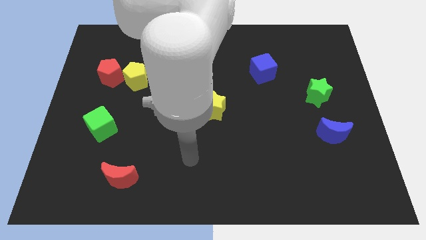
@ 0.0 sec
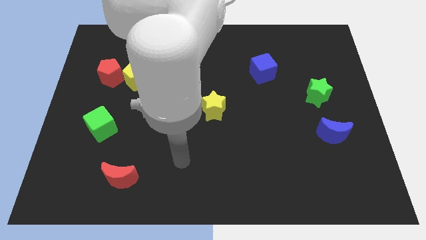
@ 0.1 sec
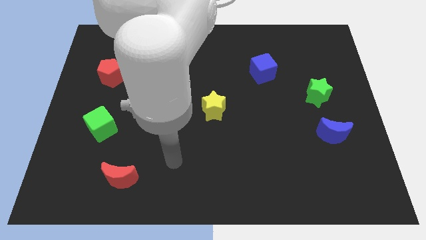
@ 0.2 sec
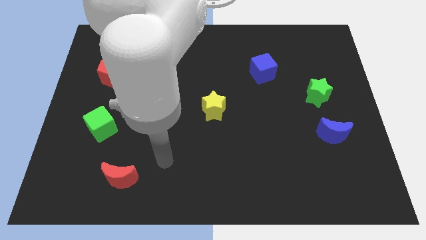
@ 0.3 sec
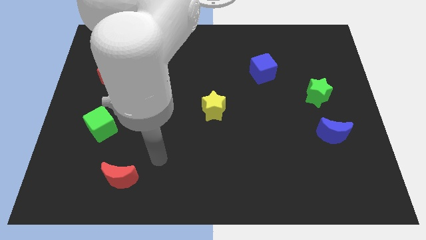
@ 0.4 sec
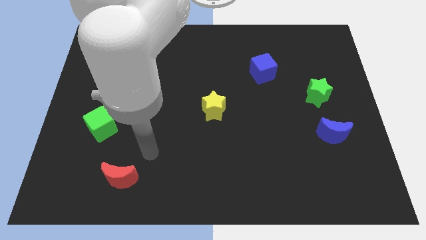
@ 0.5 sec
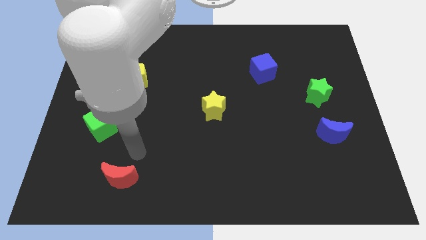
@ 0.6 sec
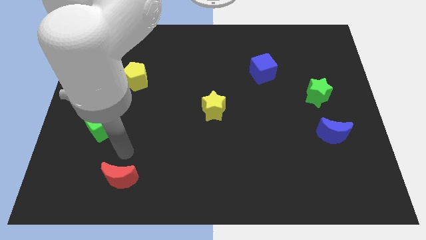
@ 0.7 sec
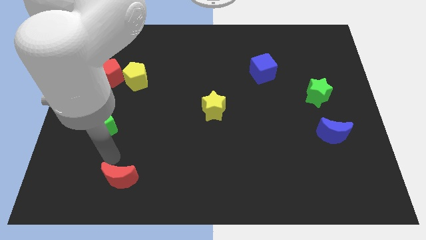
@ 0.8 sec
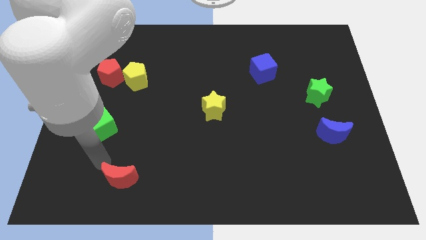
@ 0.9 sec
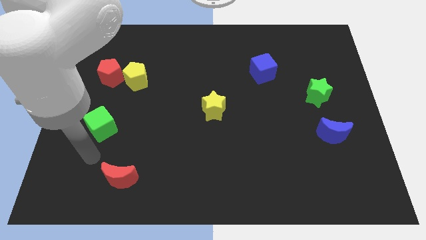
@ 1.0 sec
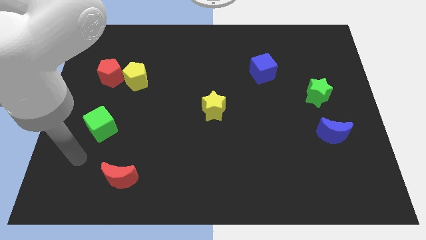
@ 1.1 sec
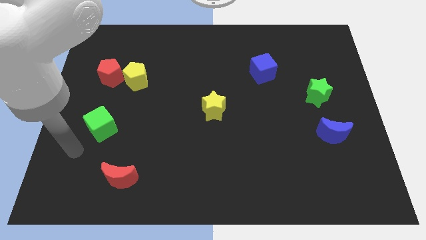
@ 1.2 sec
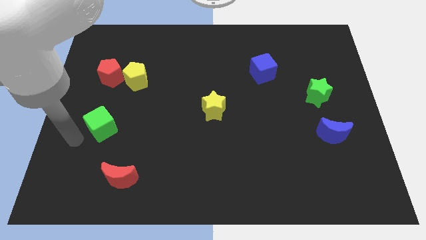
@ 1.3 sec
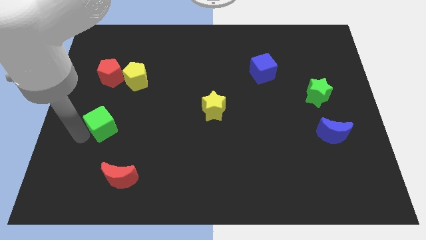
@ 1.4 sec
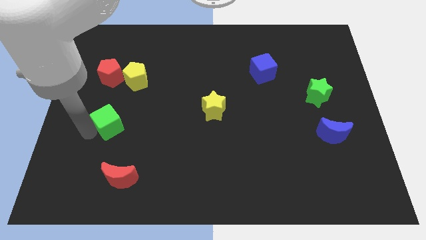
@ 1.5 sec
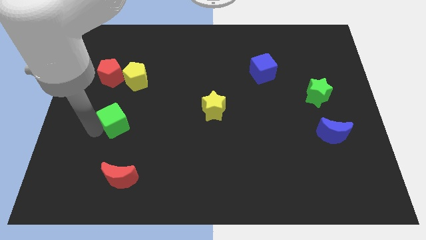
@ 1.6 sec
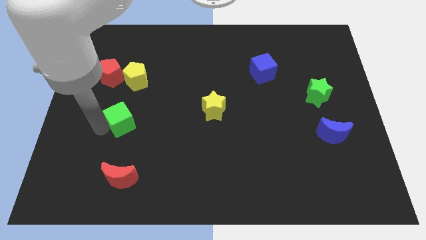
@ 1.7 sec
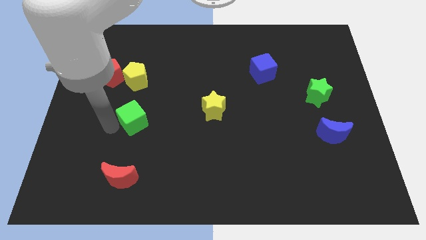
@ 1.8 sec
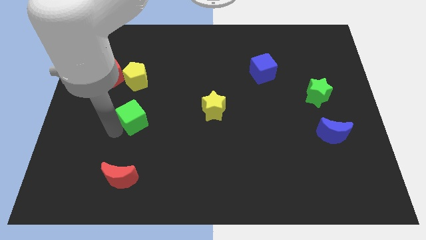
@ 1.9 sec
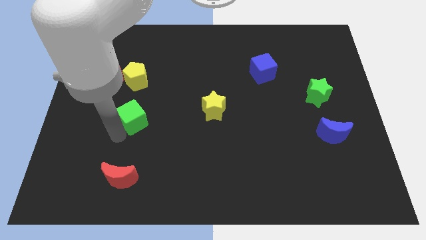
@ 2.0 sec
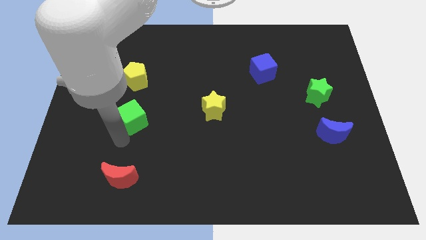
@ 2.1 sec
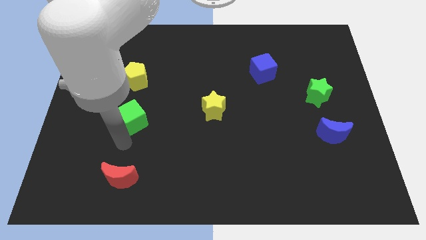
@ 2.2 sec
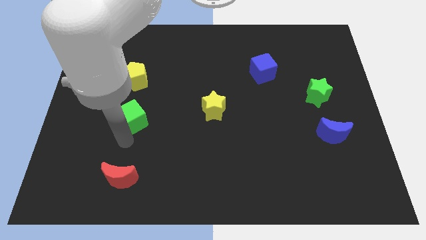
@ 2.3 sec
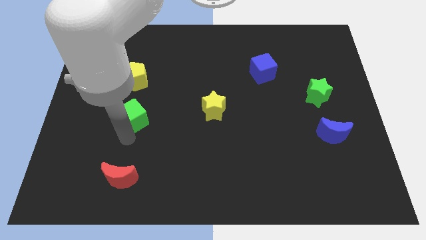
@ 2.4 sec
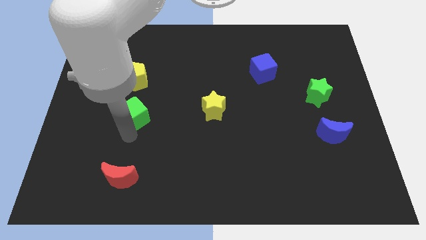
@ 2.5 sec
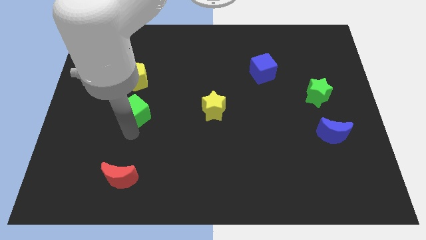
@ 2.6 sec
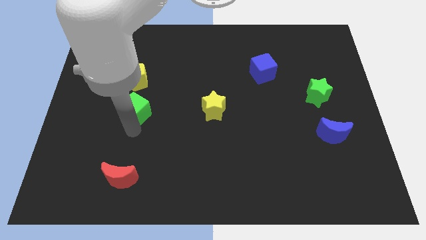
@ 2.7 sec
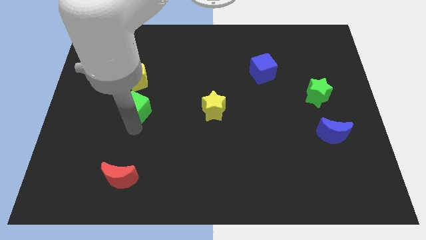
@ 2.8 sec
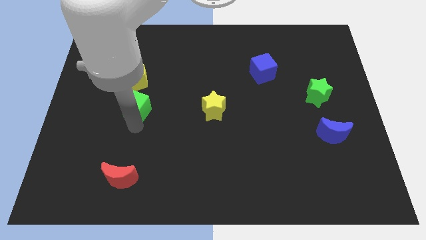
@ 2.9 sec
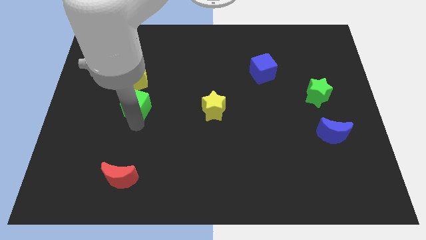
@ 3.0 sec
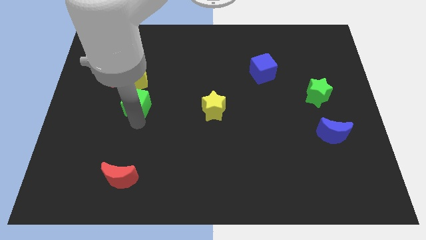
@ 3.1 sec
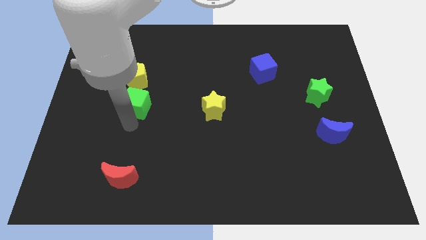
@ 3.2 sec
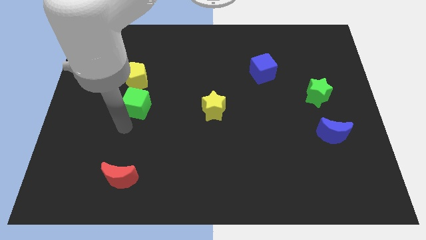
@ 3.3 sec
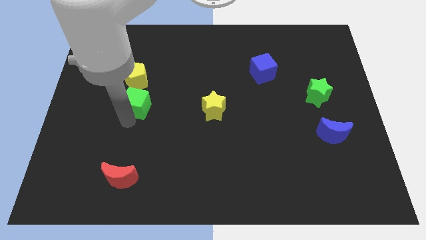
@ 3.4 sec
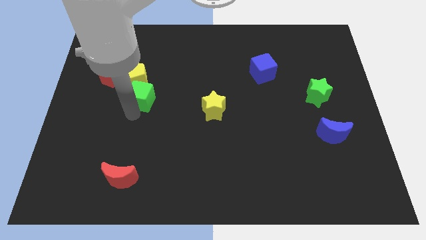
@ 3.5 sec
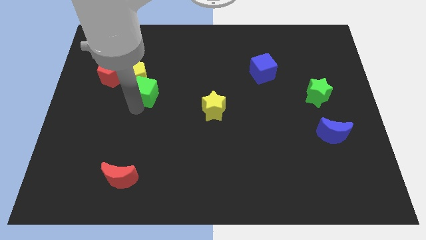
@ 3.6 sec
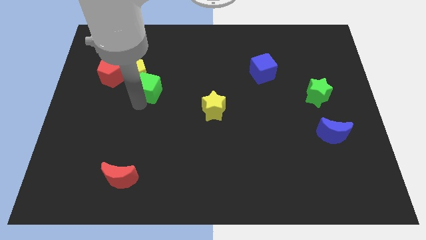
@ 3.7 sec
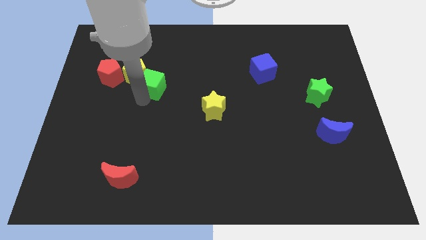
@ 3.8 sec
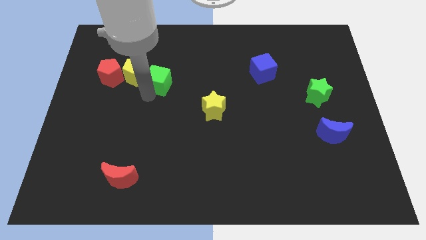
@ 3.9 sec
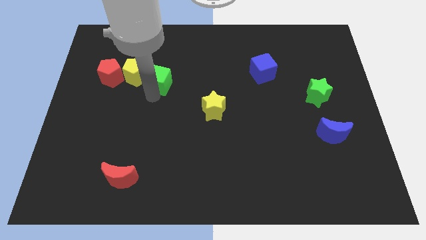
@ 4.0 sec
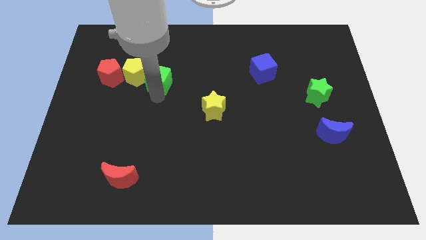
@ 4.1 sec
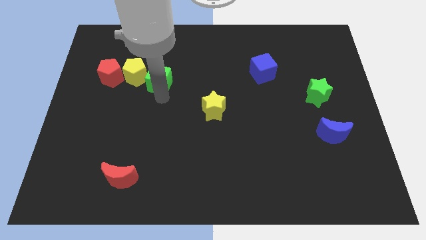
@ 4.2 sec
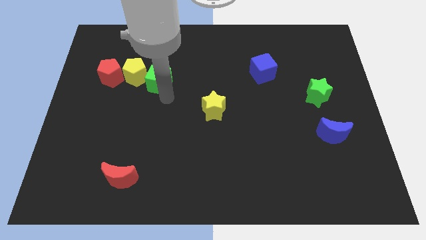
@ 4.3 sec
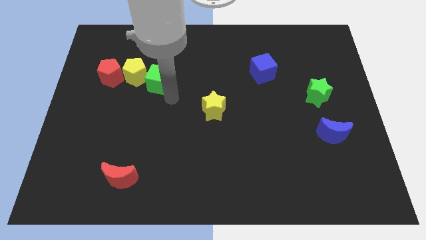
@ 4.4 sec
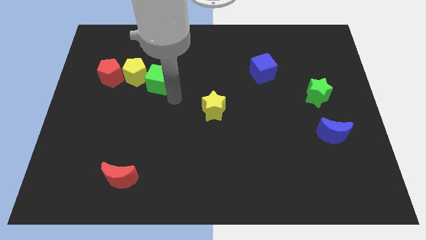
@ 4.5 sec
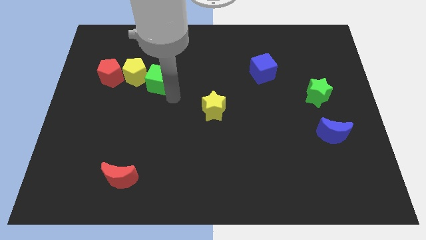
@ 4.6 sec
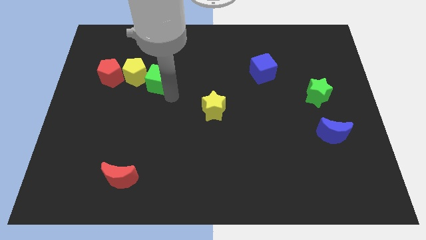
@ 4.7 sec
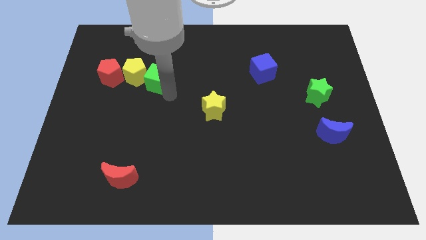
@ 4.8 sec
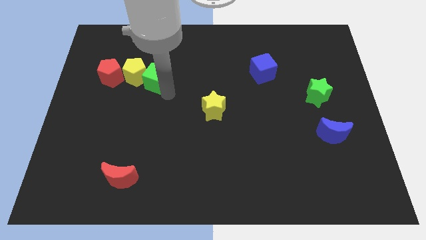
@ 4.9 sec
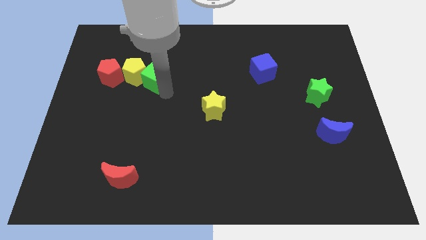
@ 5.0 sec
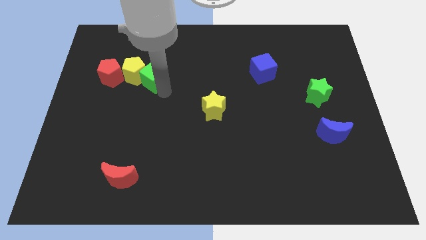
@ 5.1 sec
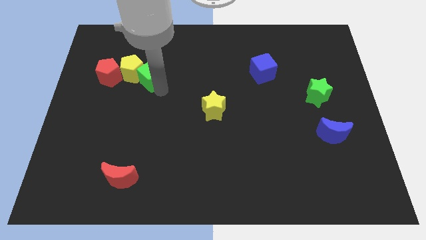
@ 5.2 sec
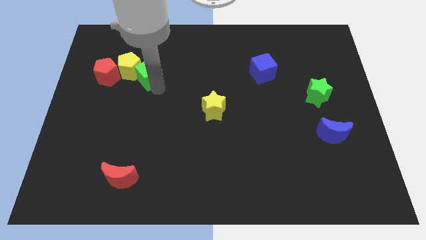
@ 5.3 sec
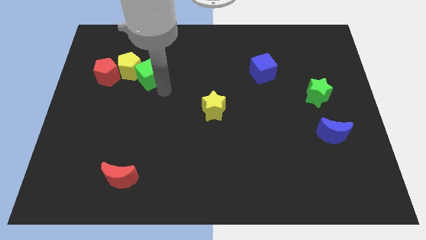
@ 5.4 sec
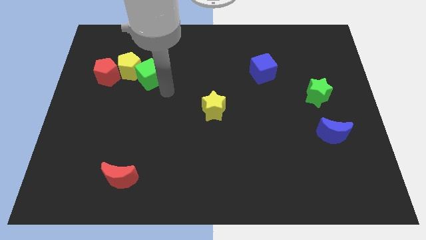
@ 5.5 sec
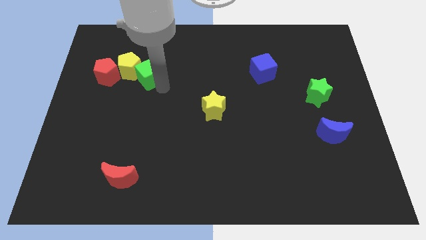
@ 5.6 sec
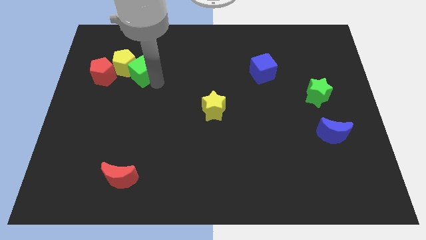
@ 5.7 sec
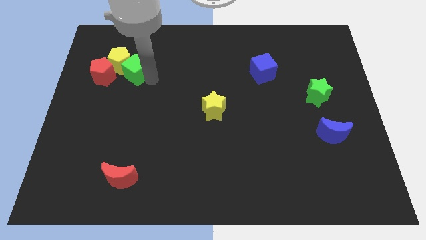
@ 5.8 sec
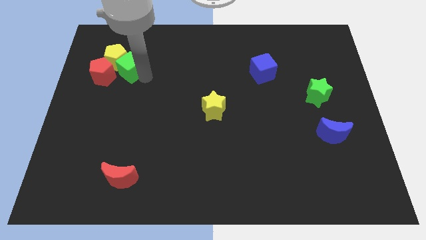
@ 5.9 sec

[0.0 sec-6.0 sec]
put the green cube to the top right side of the red pentagon

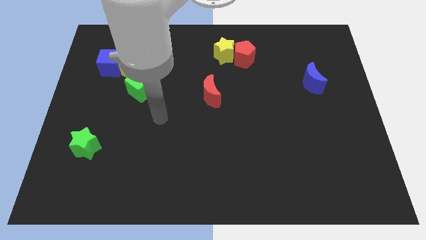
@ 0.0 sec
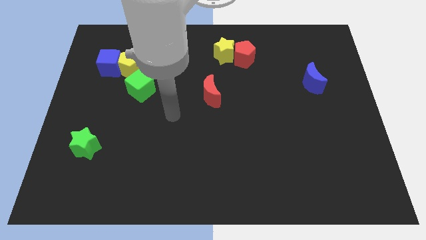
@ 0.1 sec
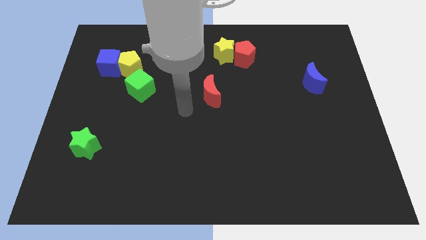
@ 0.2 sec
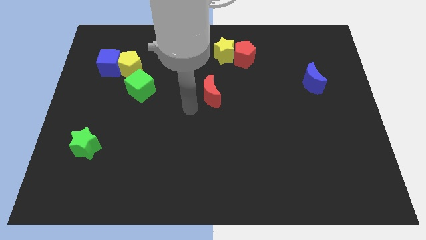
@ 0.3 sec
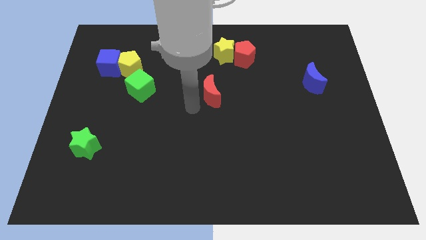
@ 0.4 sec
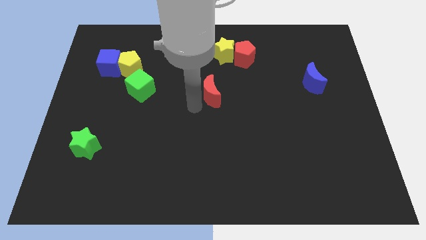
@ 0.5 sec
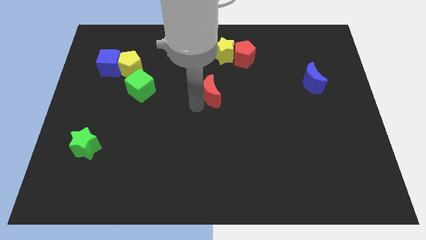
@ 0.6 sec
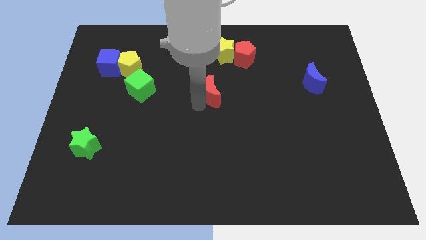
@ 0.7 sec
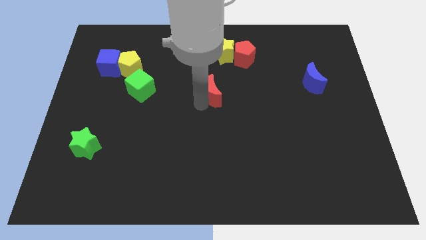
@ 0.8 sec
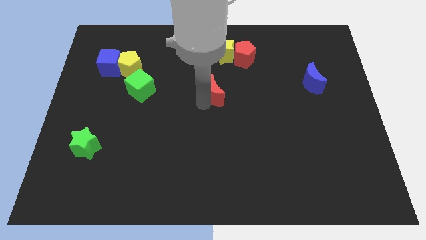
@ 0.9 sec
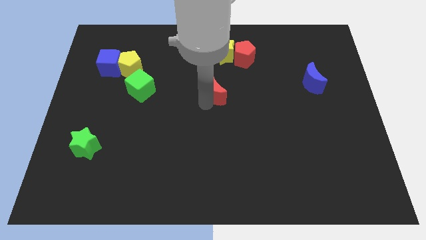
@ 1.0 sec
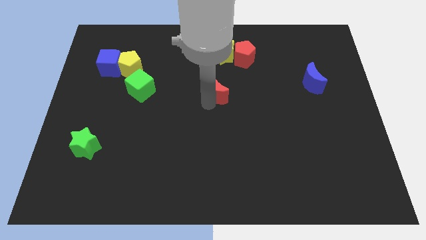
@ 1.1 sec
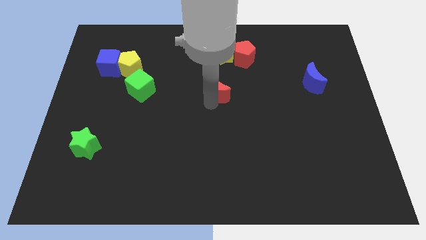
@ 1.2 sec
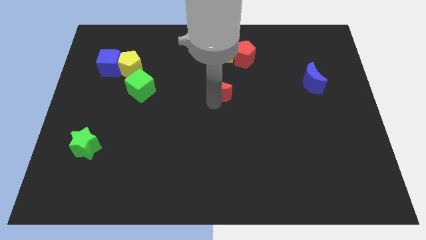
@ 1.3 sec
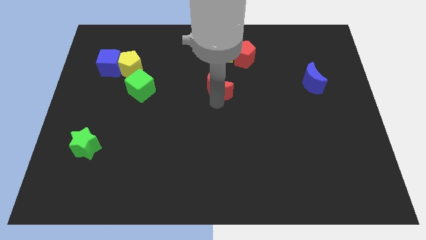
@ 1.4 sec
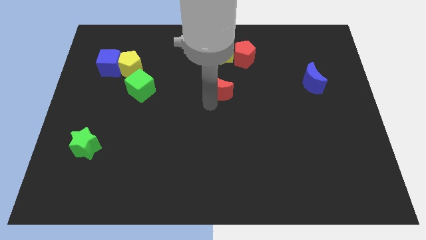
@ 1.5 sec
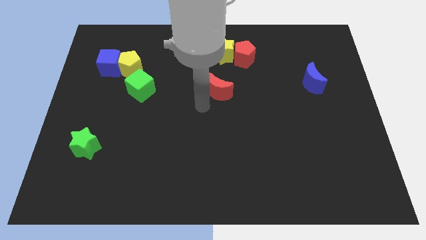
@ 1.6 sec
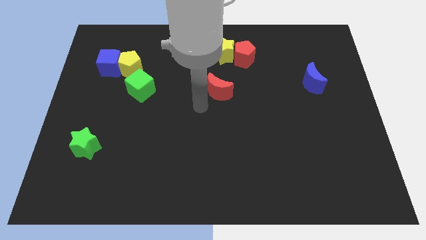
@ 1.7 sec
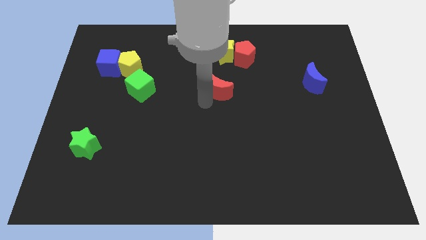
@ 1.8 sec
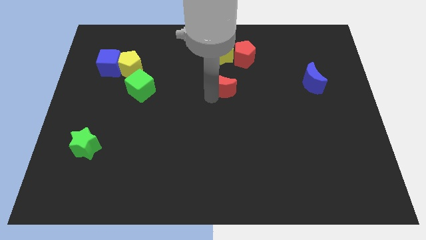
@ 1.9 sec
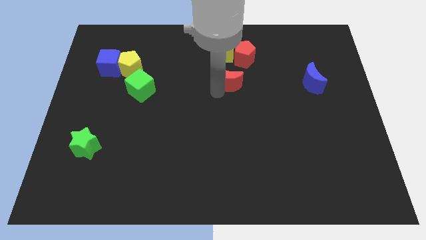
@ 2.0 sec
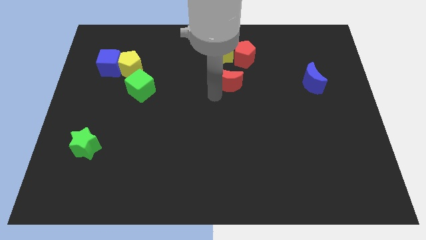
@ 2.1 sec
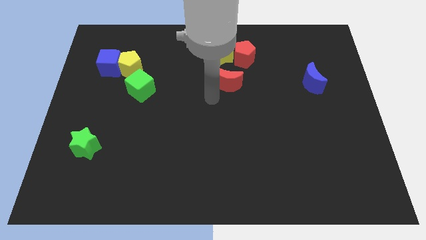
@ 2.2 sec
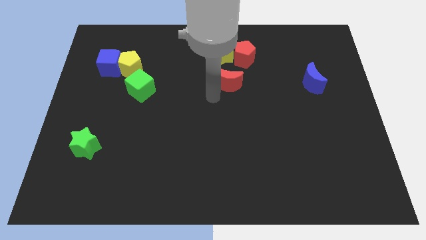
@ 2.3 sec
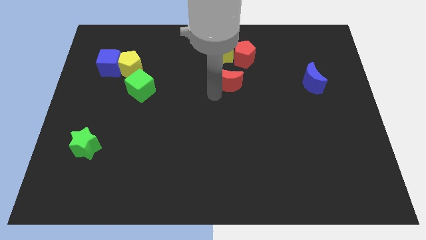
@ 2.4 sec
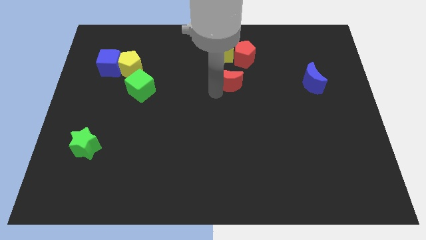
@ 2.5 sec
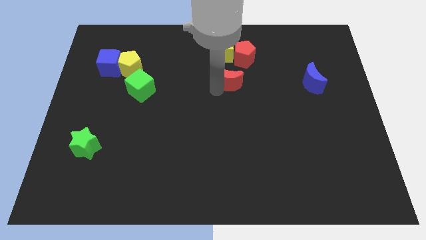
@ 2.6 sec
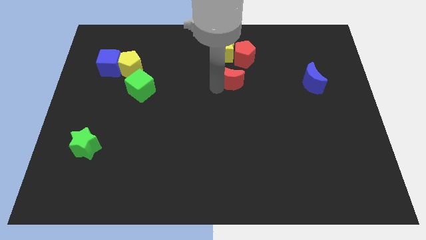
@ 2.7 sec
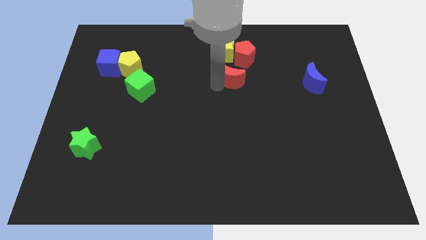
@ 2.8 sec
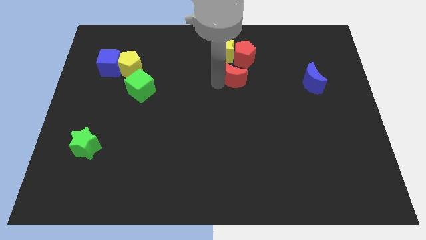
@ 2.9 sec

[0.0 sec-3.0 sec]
put the red moon to the bottom right side of the yellow star
